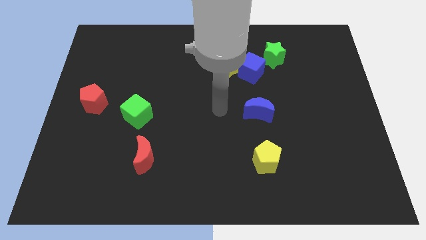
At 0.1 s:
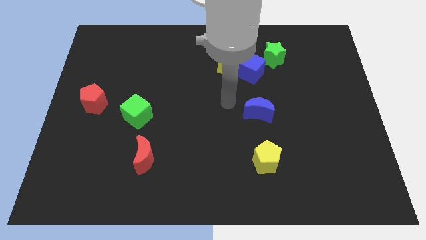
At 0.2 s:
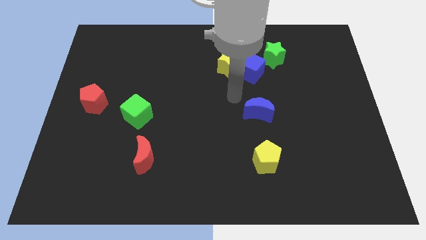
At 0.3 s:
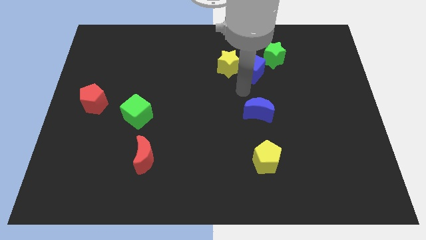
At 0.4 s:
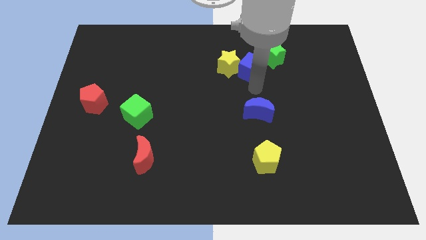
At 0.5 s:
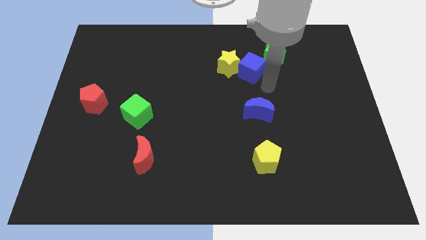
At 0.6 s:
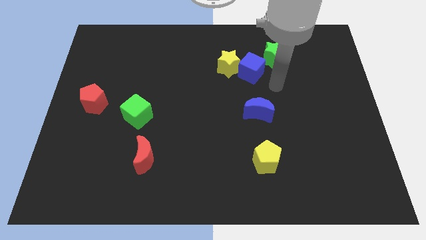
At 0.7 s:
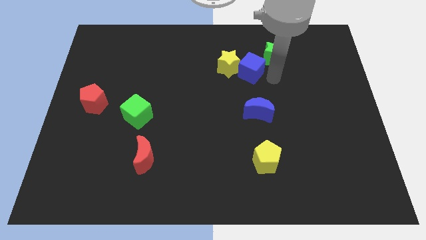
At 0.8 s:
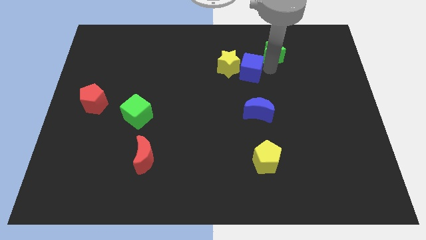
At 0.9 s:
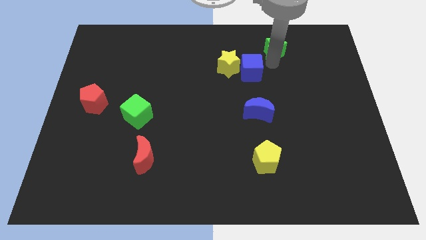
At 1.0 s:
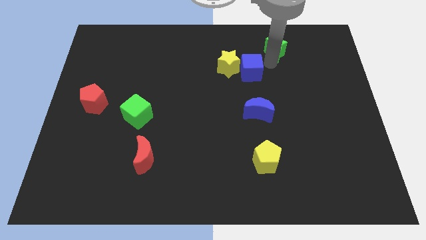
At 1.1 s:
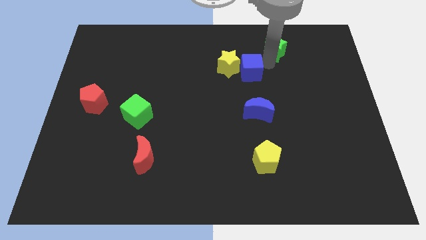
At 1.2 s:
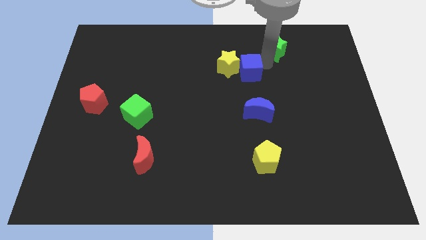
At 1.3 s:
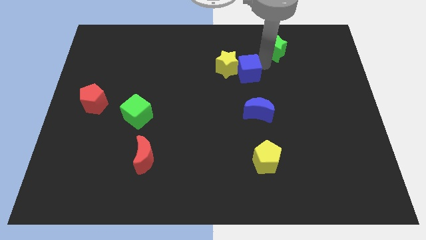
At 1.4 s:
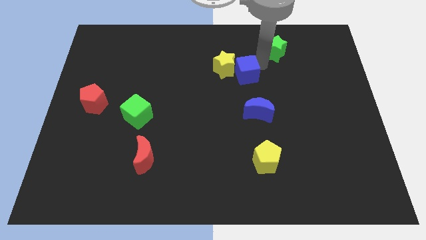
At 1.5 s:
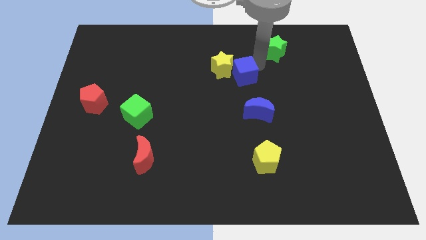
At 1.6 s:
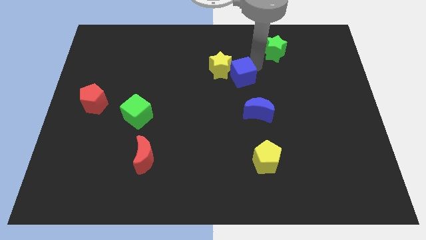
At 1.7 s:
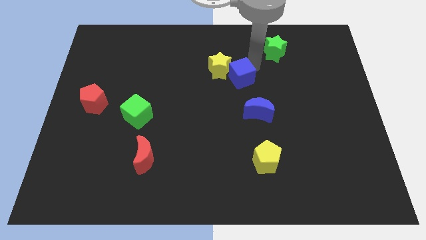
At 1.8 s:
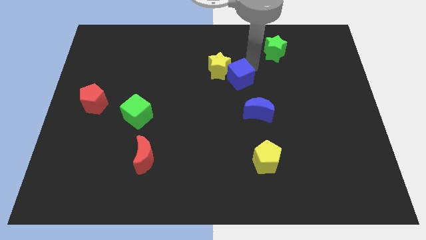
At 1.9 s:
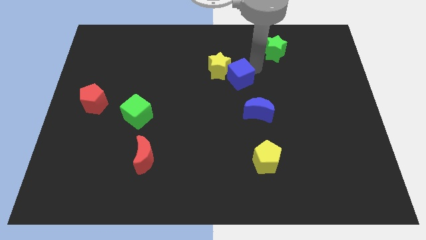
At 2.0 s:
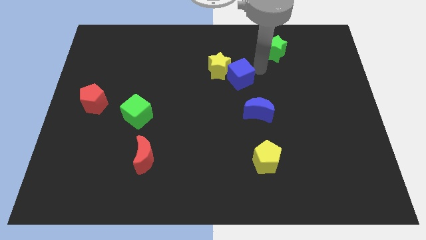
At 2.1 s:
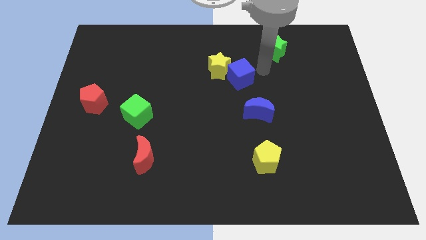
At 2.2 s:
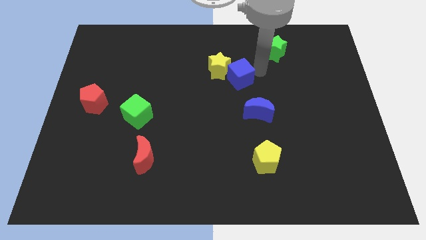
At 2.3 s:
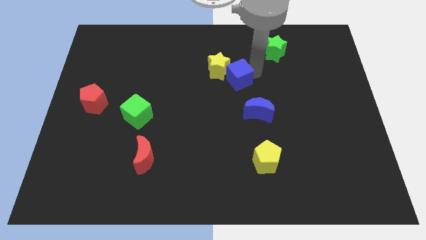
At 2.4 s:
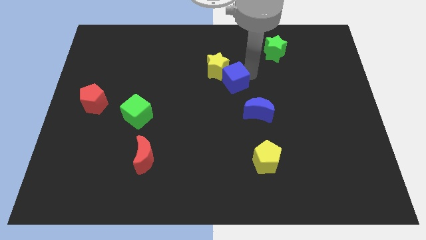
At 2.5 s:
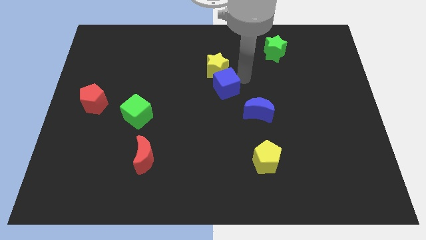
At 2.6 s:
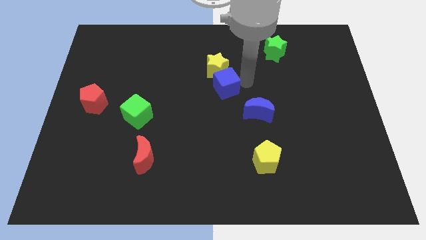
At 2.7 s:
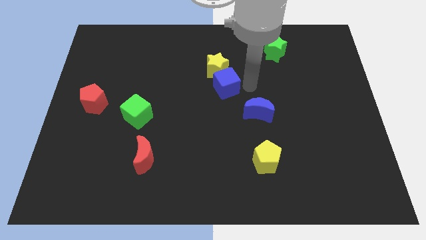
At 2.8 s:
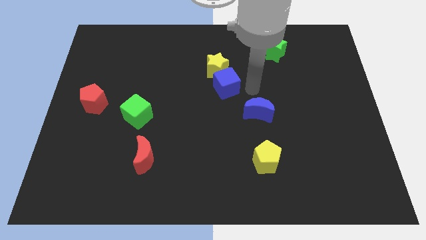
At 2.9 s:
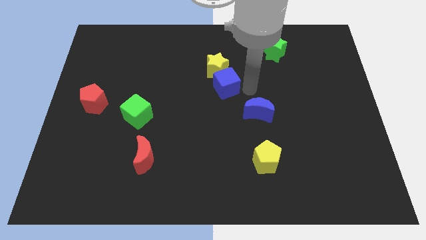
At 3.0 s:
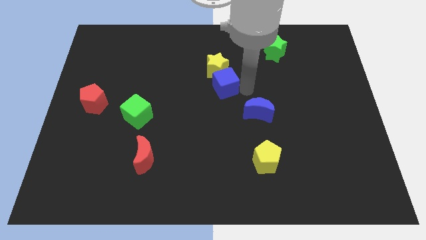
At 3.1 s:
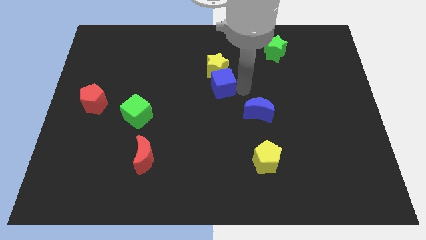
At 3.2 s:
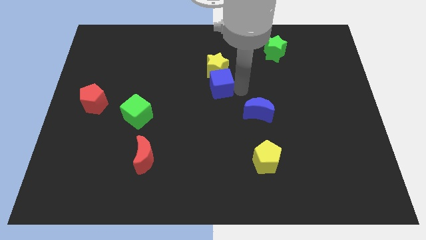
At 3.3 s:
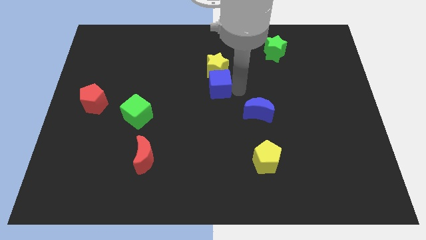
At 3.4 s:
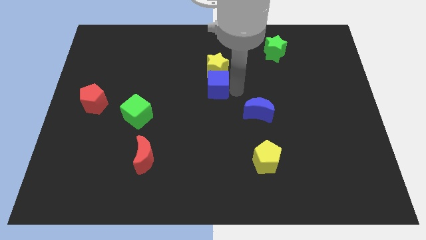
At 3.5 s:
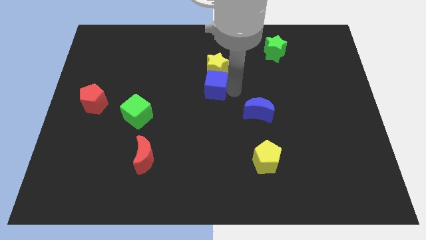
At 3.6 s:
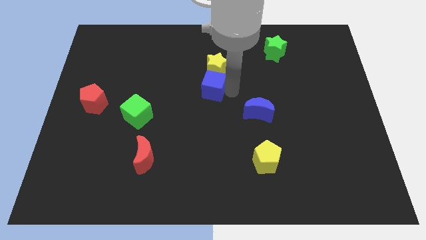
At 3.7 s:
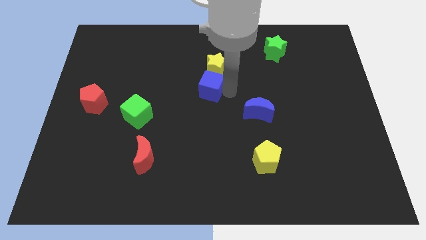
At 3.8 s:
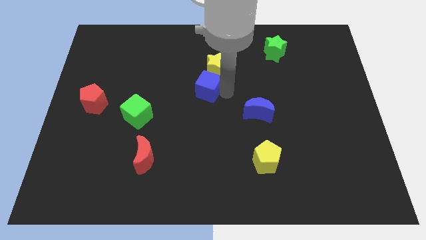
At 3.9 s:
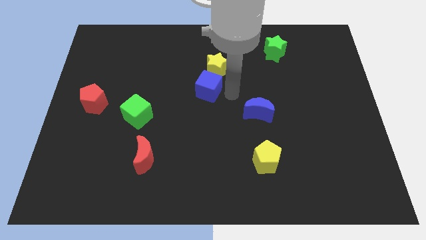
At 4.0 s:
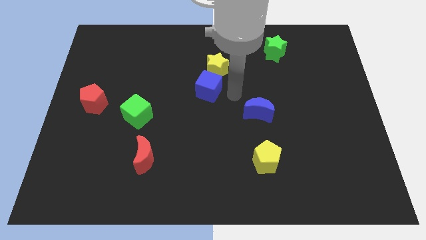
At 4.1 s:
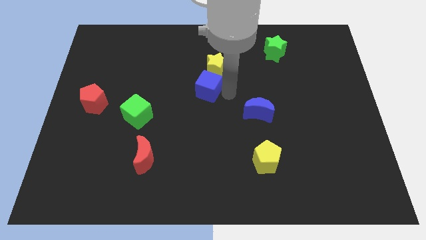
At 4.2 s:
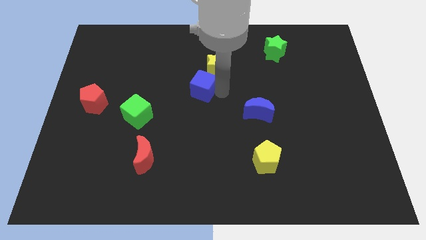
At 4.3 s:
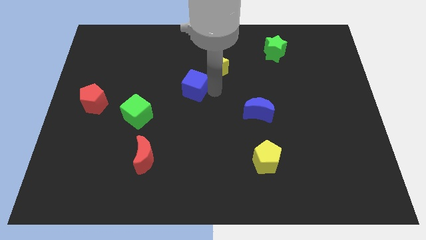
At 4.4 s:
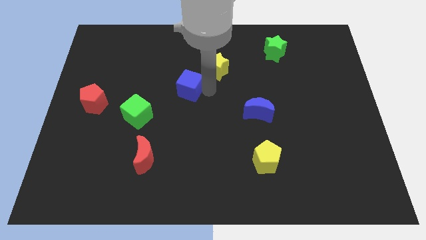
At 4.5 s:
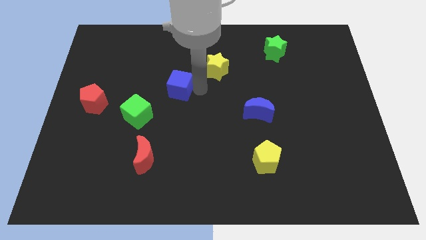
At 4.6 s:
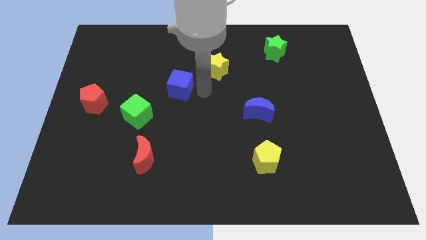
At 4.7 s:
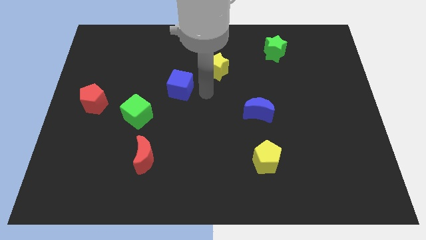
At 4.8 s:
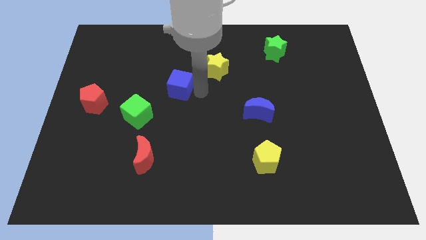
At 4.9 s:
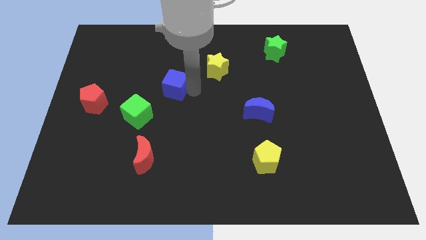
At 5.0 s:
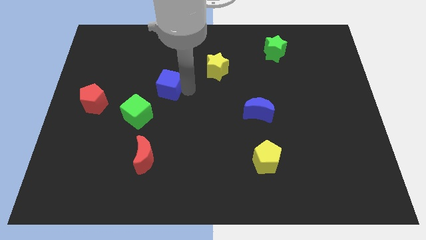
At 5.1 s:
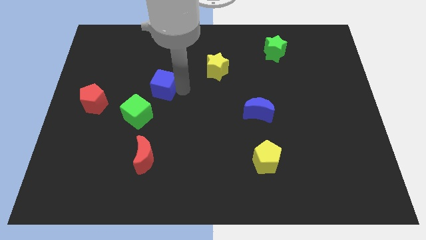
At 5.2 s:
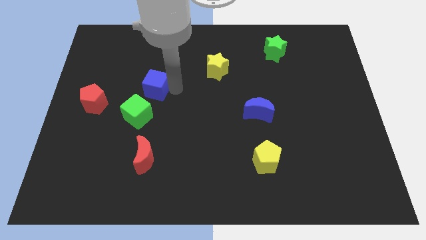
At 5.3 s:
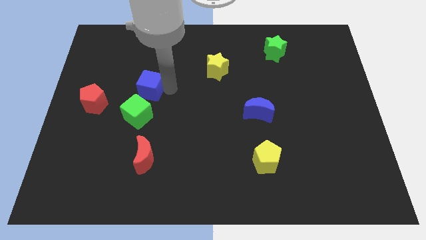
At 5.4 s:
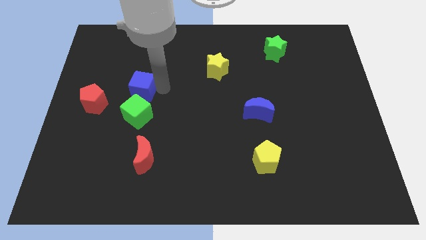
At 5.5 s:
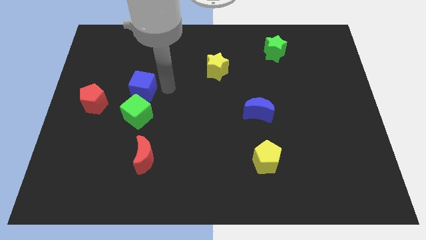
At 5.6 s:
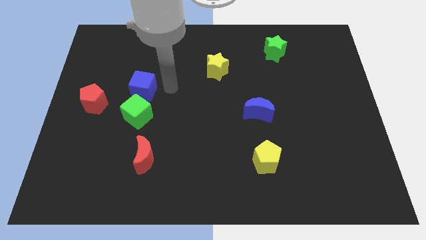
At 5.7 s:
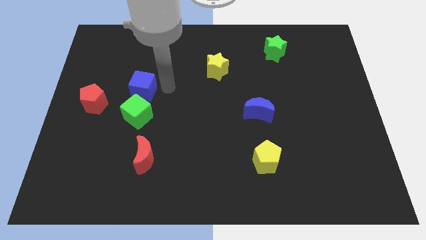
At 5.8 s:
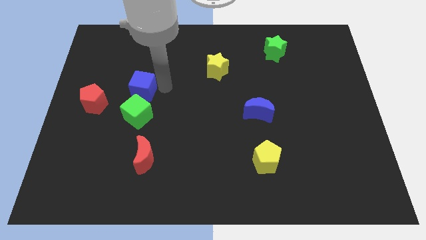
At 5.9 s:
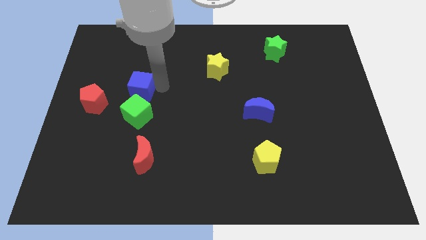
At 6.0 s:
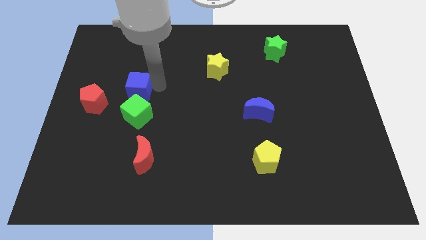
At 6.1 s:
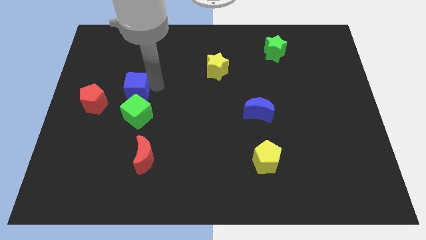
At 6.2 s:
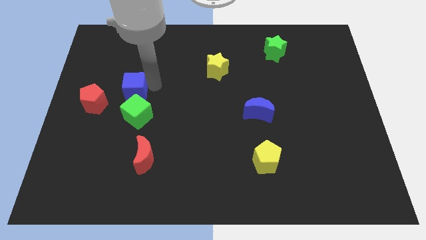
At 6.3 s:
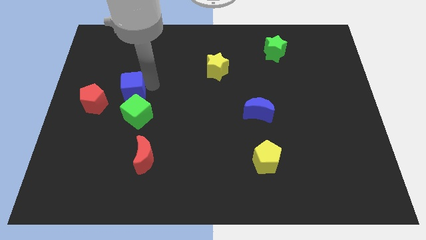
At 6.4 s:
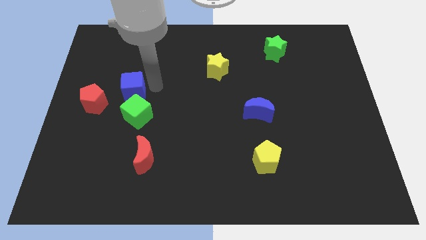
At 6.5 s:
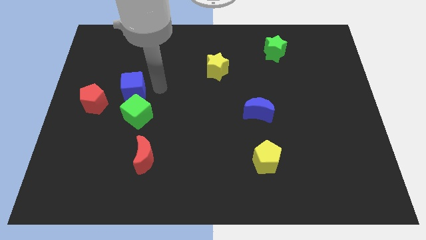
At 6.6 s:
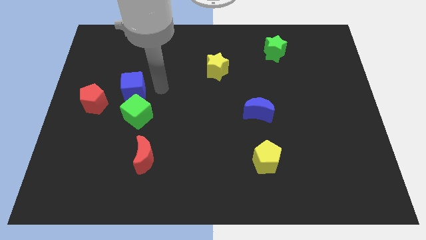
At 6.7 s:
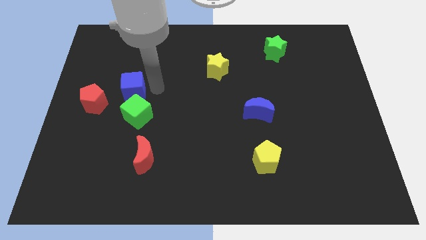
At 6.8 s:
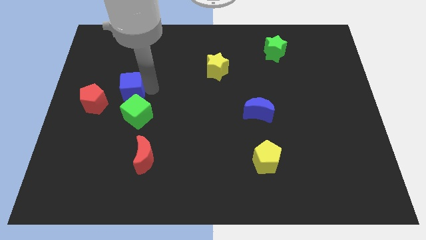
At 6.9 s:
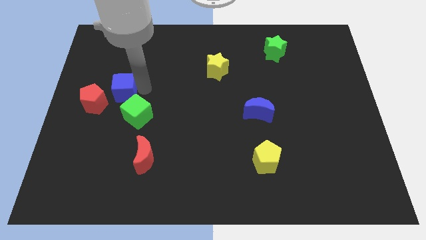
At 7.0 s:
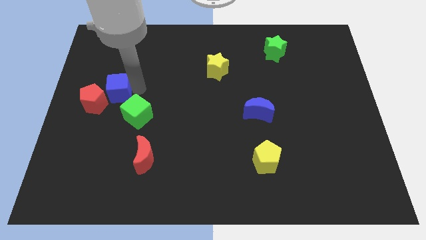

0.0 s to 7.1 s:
put the blue cube next to the red pentagon
